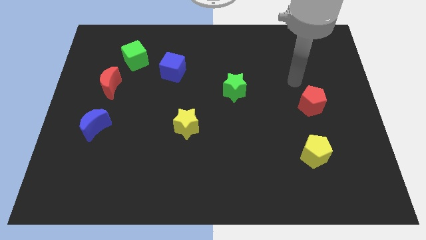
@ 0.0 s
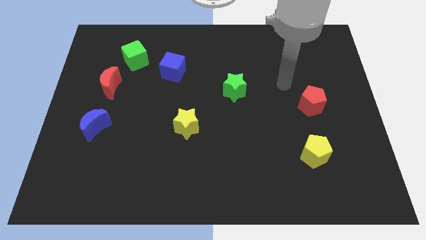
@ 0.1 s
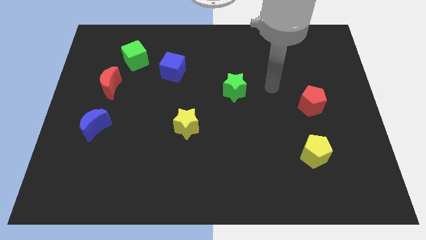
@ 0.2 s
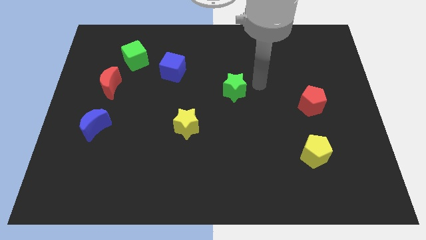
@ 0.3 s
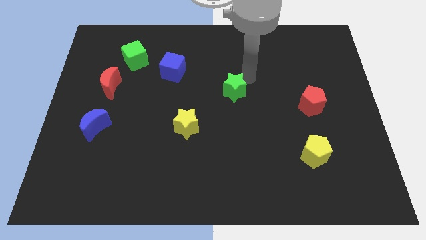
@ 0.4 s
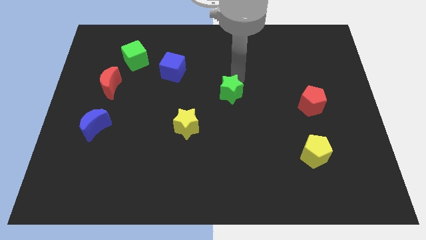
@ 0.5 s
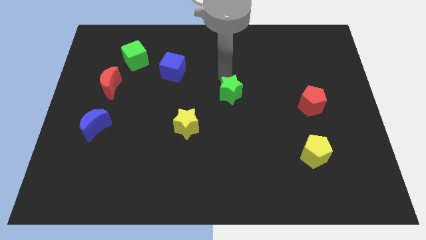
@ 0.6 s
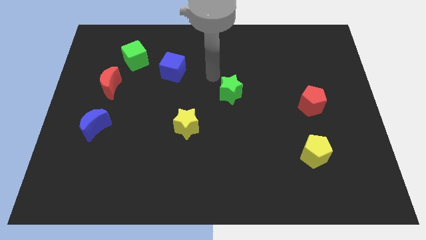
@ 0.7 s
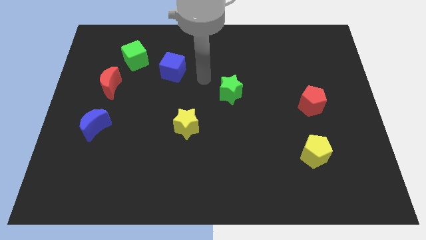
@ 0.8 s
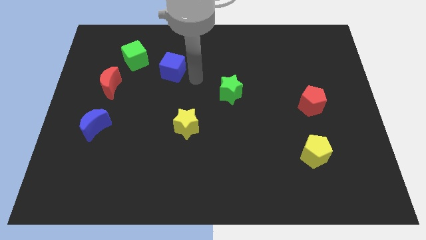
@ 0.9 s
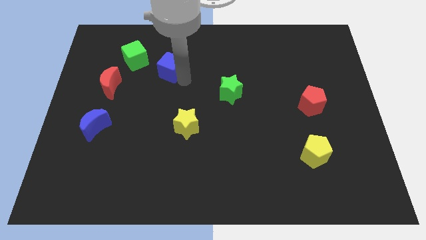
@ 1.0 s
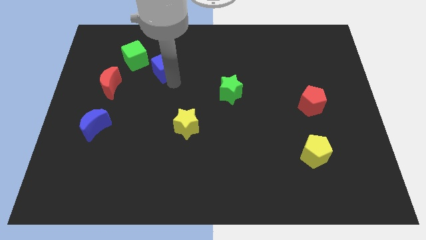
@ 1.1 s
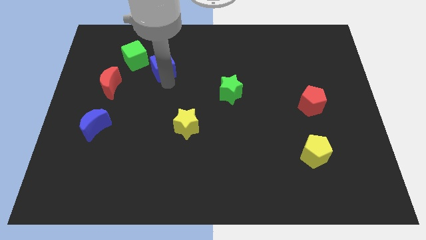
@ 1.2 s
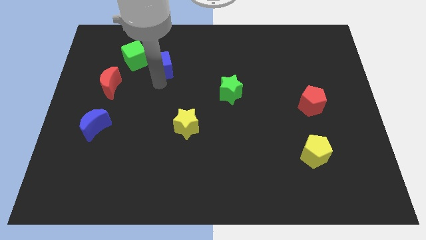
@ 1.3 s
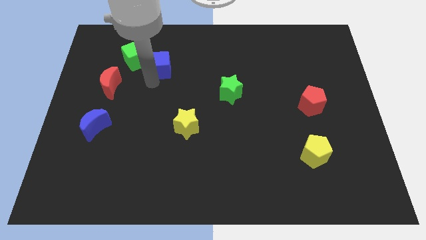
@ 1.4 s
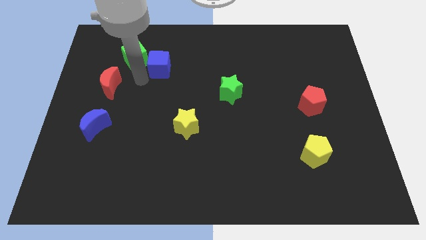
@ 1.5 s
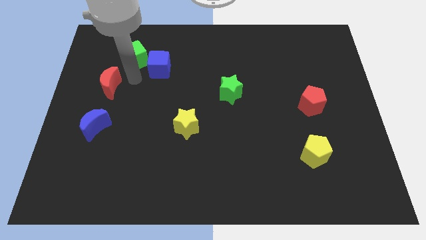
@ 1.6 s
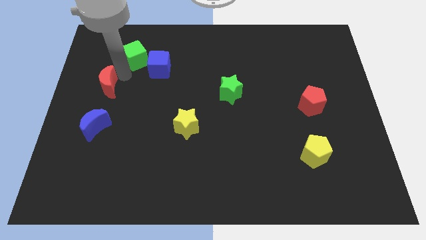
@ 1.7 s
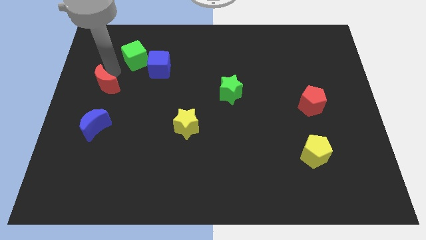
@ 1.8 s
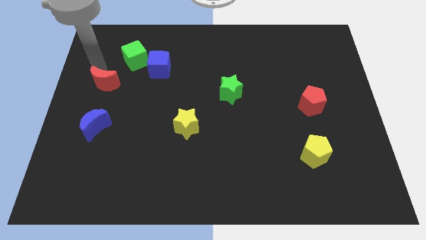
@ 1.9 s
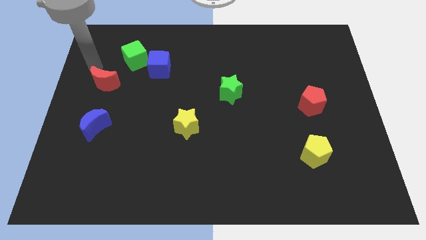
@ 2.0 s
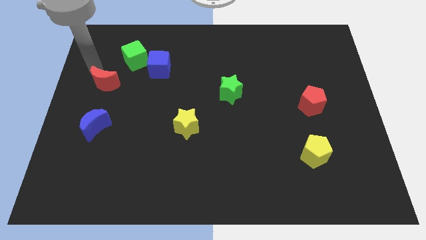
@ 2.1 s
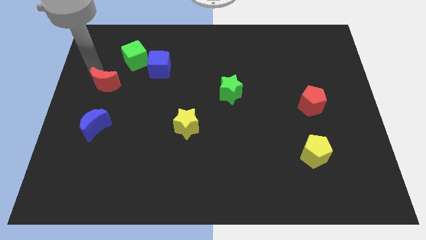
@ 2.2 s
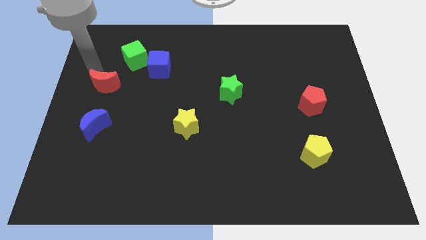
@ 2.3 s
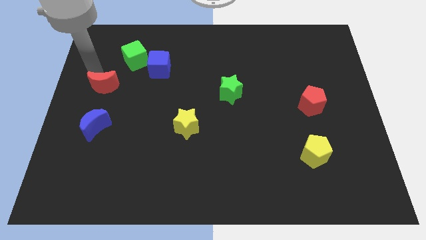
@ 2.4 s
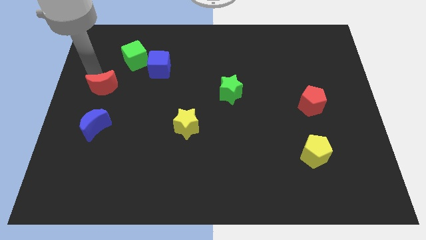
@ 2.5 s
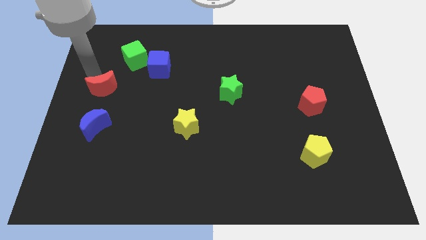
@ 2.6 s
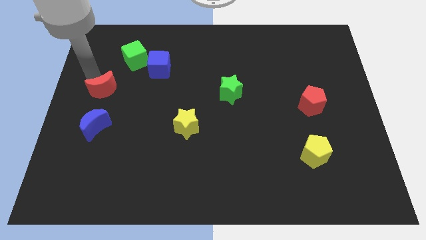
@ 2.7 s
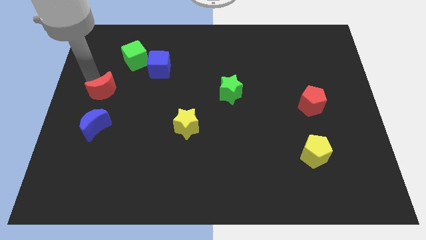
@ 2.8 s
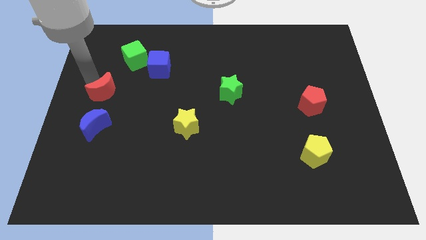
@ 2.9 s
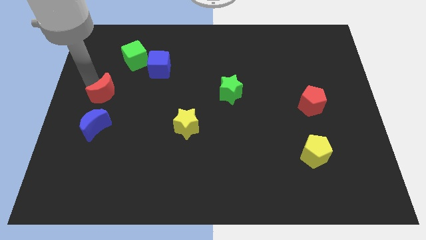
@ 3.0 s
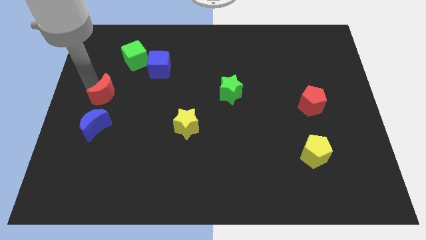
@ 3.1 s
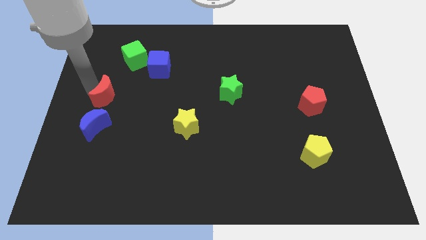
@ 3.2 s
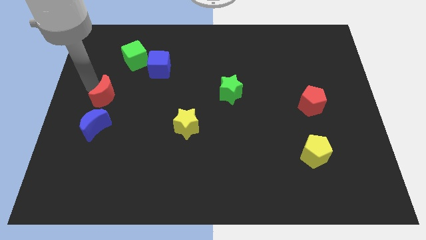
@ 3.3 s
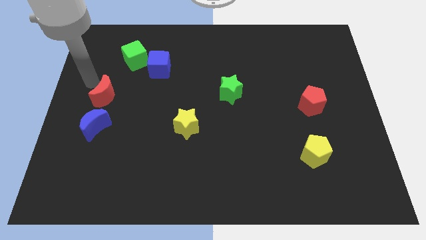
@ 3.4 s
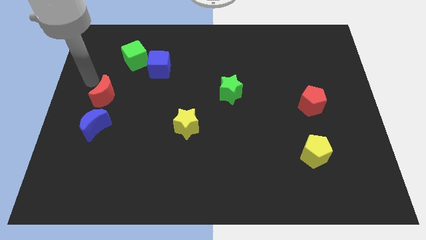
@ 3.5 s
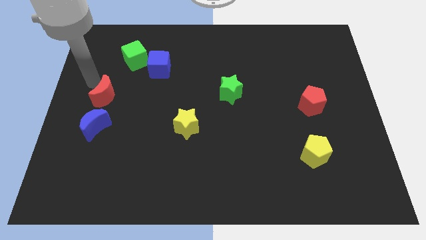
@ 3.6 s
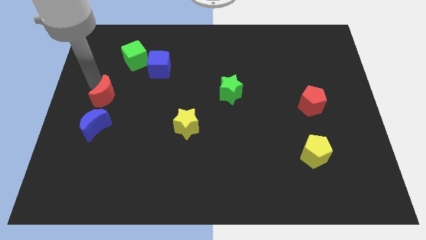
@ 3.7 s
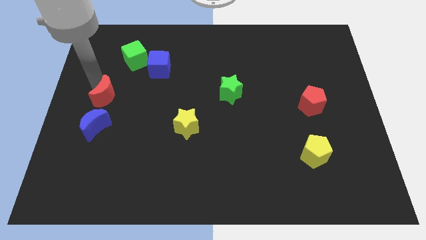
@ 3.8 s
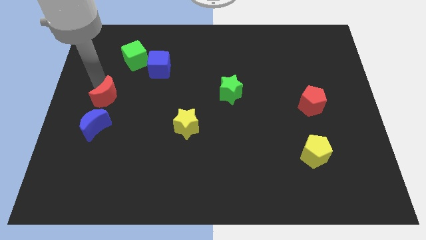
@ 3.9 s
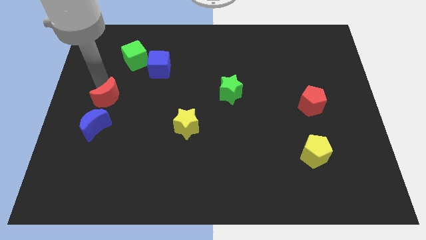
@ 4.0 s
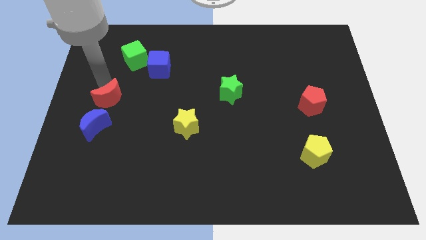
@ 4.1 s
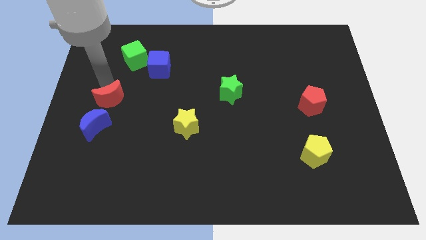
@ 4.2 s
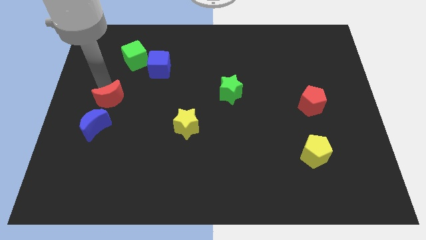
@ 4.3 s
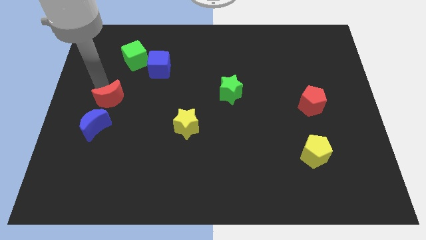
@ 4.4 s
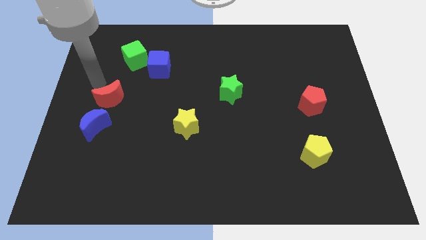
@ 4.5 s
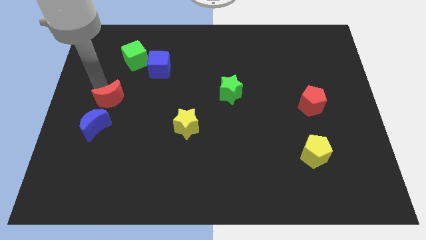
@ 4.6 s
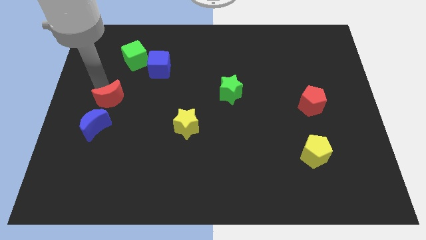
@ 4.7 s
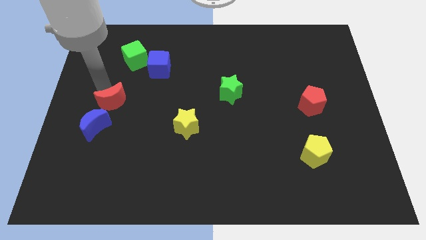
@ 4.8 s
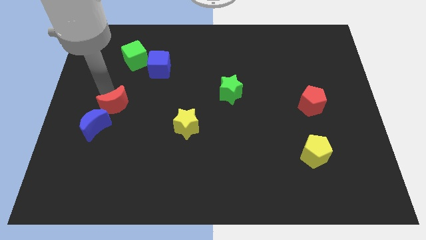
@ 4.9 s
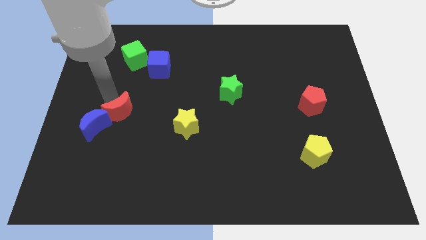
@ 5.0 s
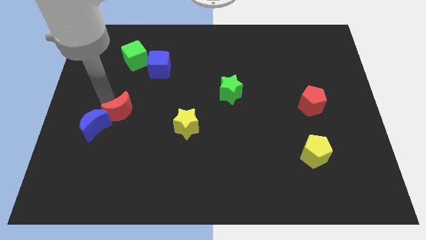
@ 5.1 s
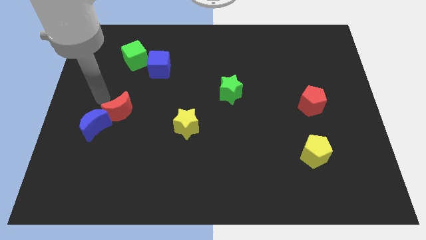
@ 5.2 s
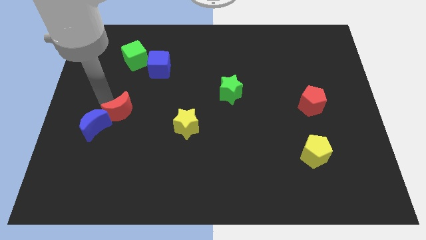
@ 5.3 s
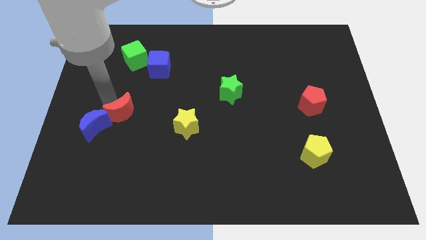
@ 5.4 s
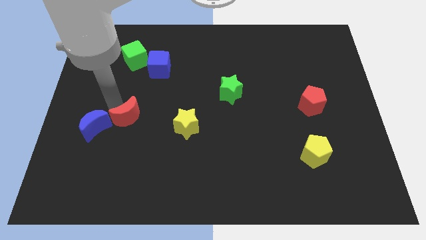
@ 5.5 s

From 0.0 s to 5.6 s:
push the red moon left of the yellow star

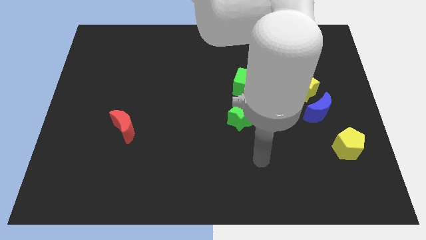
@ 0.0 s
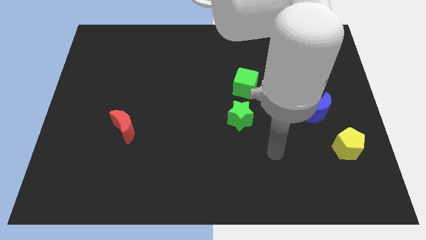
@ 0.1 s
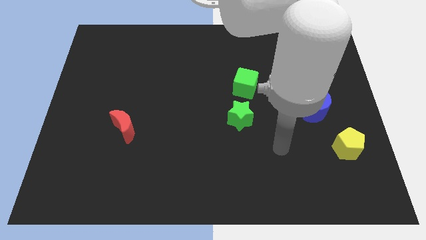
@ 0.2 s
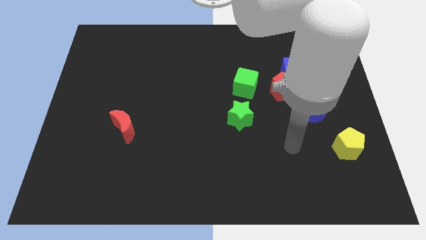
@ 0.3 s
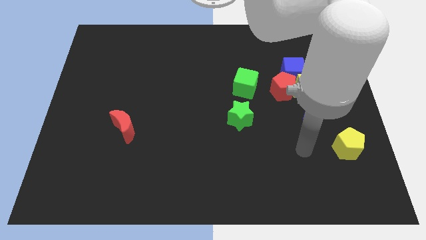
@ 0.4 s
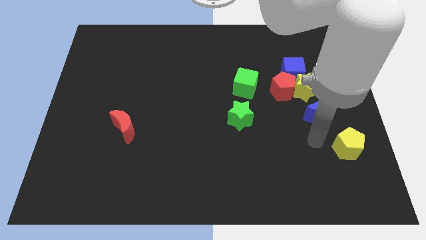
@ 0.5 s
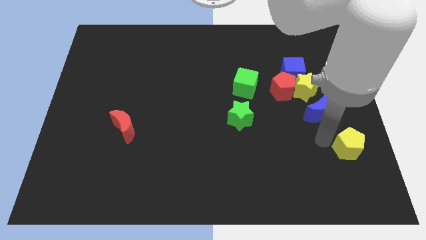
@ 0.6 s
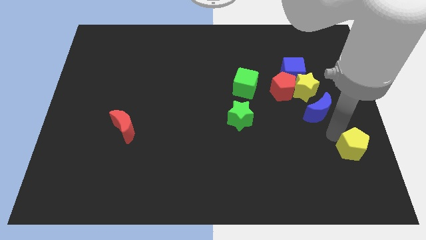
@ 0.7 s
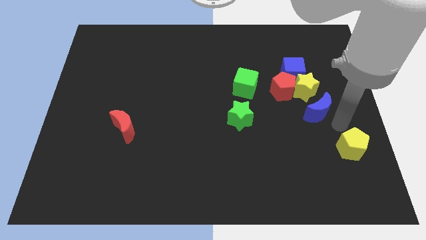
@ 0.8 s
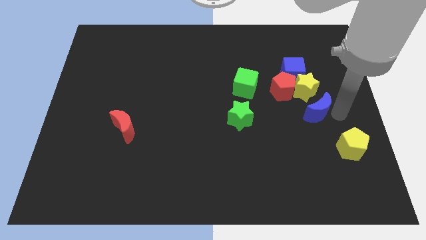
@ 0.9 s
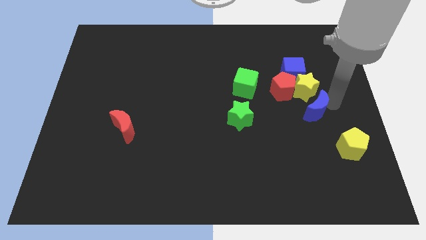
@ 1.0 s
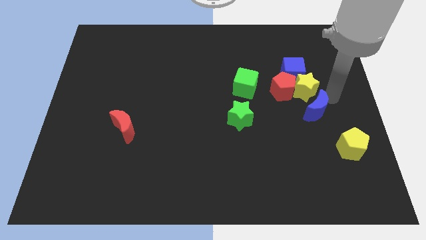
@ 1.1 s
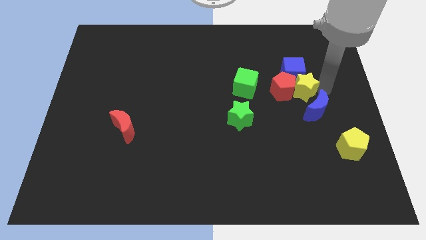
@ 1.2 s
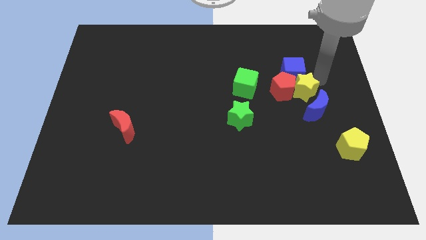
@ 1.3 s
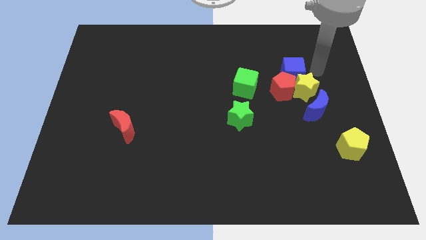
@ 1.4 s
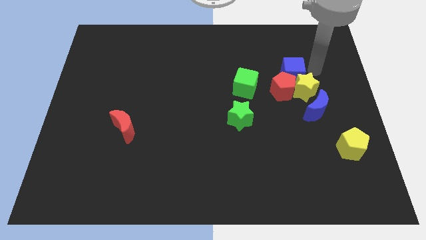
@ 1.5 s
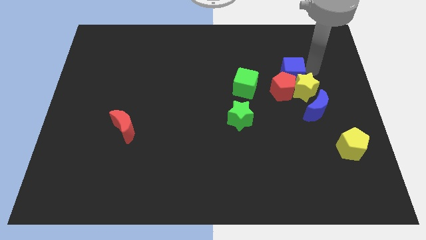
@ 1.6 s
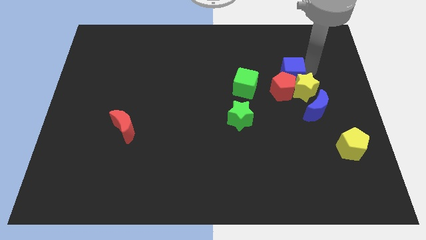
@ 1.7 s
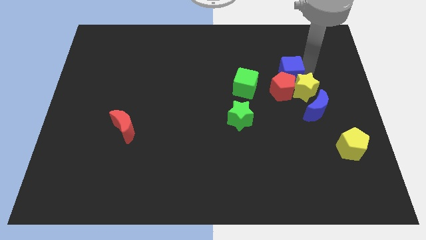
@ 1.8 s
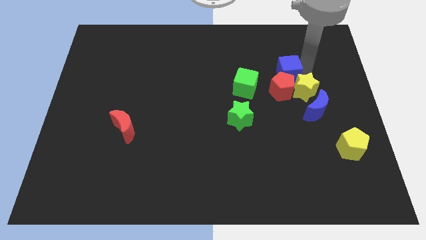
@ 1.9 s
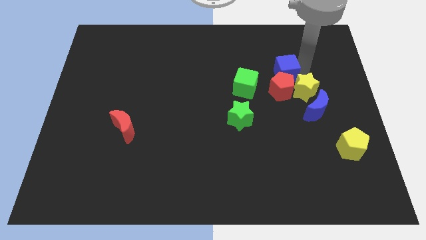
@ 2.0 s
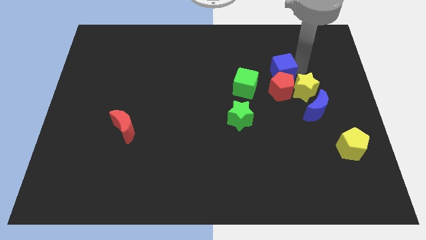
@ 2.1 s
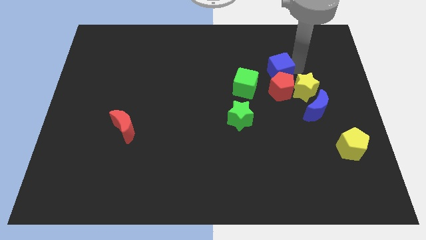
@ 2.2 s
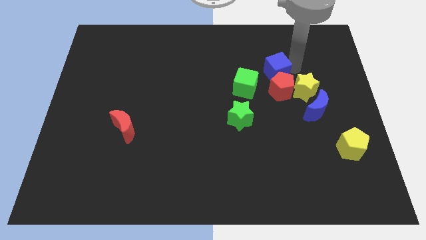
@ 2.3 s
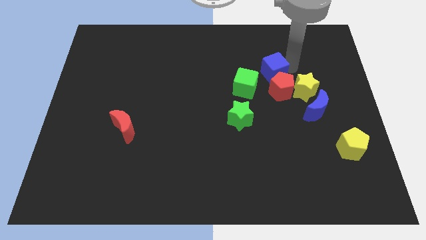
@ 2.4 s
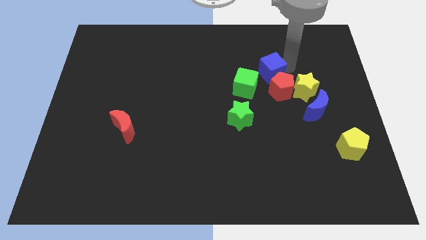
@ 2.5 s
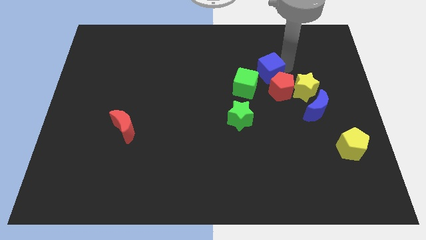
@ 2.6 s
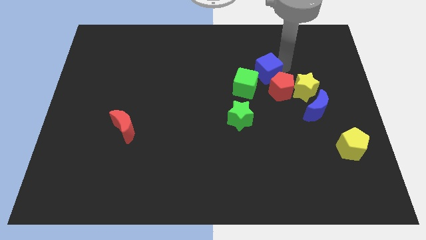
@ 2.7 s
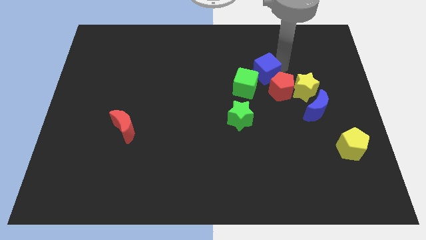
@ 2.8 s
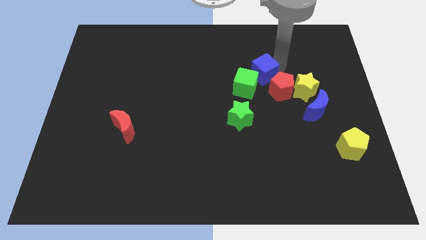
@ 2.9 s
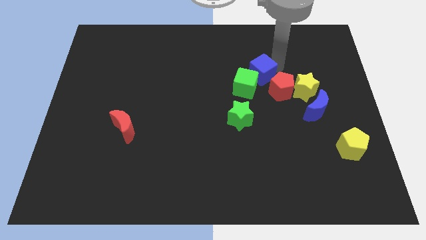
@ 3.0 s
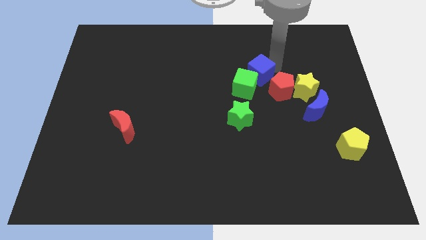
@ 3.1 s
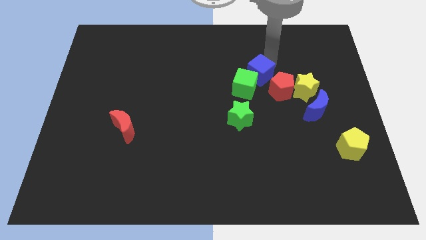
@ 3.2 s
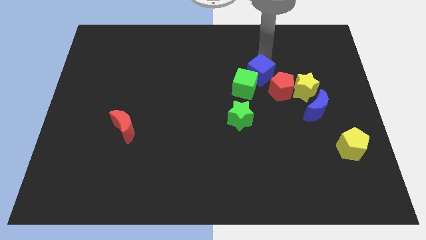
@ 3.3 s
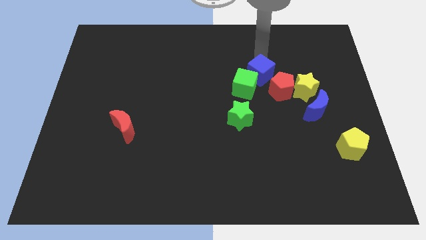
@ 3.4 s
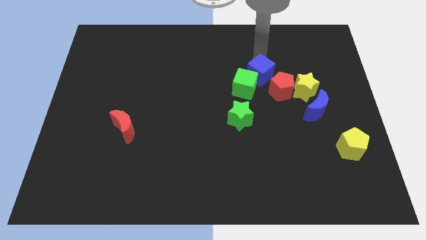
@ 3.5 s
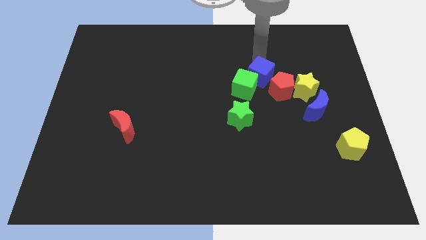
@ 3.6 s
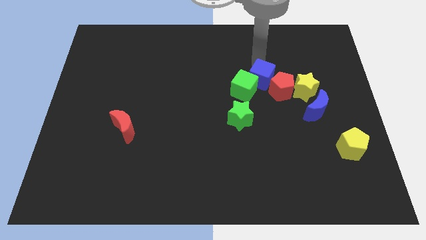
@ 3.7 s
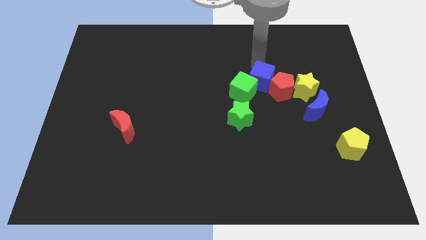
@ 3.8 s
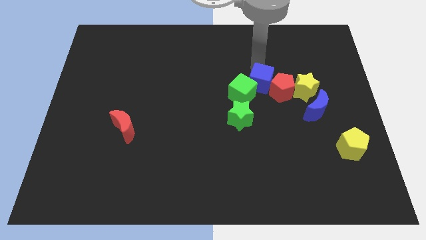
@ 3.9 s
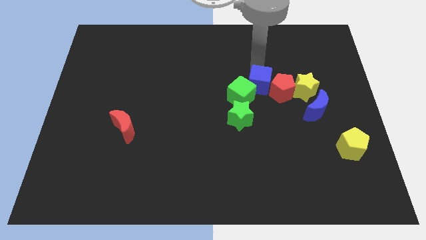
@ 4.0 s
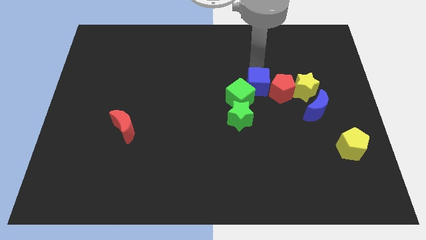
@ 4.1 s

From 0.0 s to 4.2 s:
put the blue cube diagonally up and to the right of the green star
